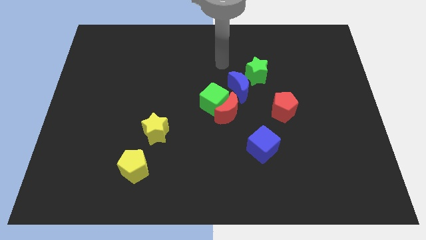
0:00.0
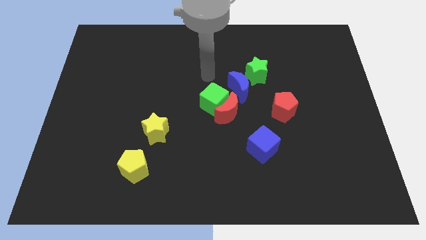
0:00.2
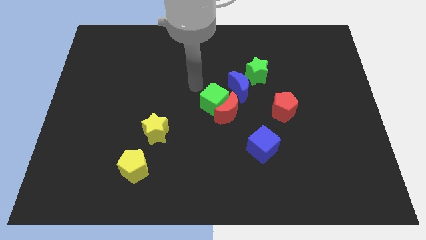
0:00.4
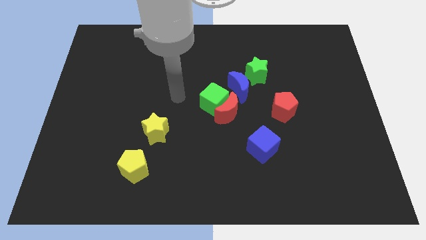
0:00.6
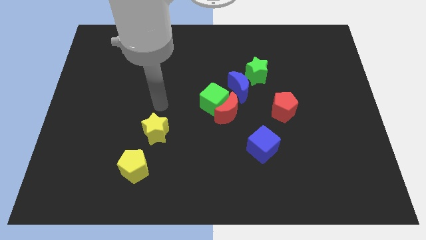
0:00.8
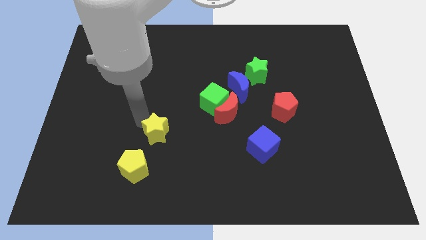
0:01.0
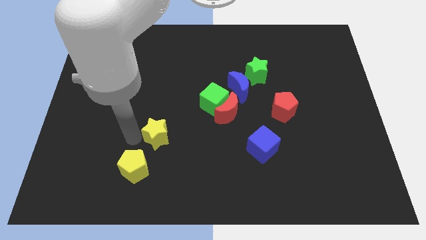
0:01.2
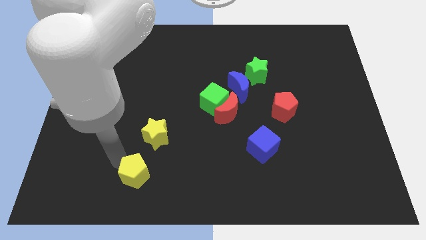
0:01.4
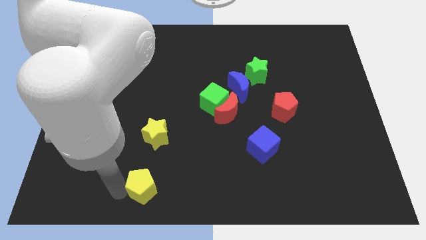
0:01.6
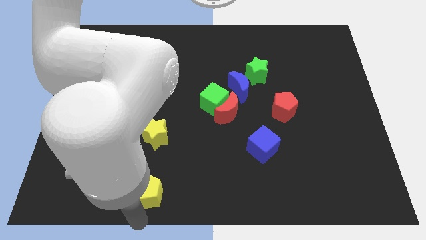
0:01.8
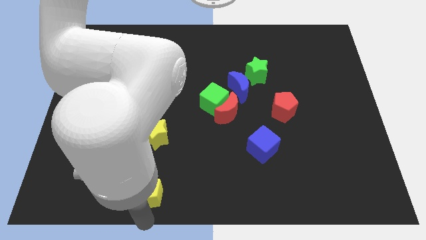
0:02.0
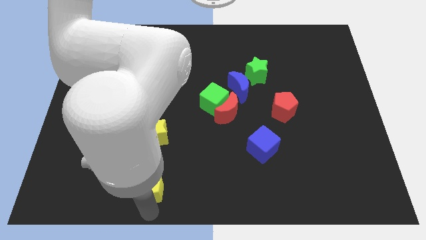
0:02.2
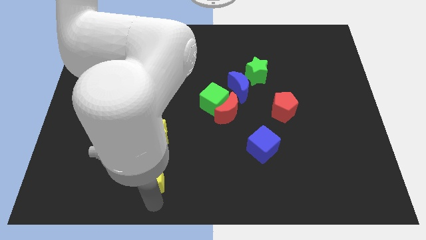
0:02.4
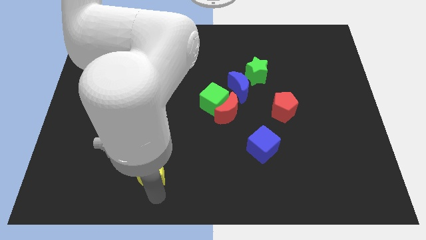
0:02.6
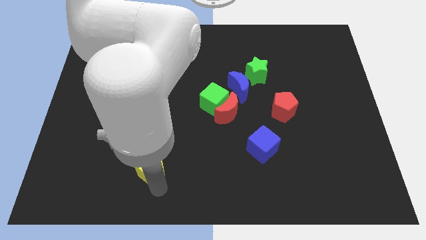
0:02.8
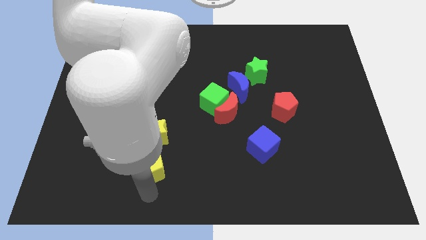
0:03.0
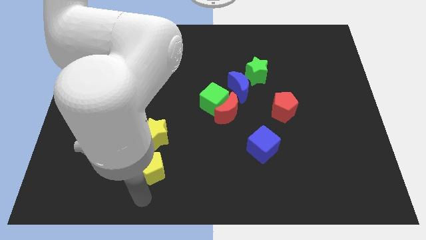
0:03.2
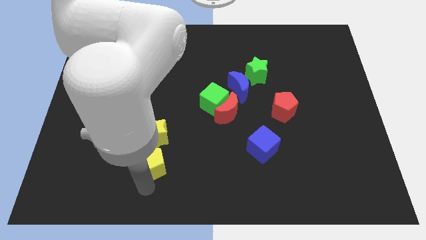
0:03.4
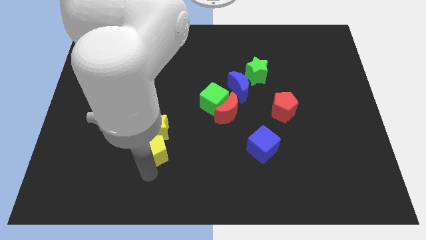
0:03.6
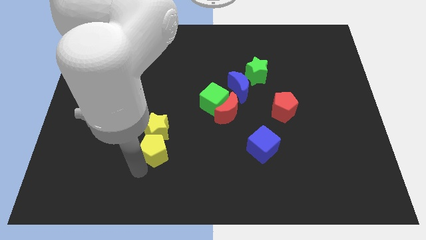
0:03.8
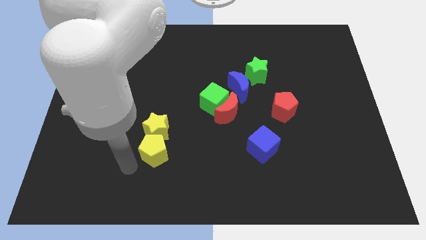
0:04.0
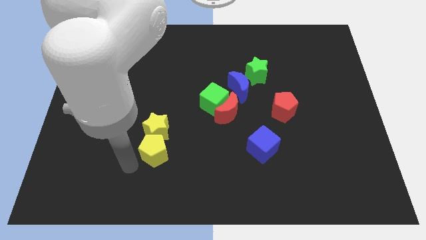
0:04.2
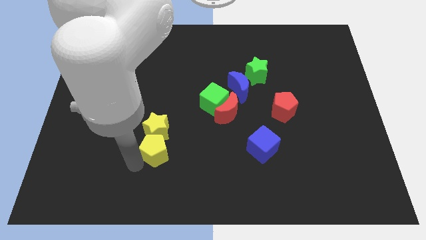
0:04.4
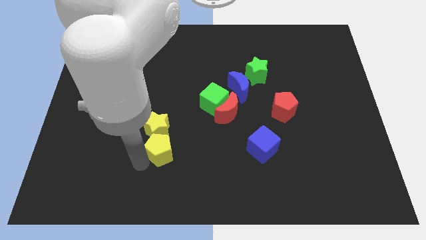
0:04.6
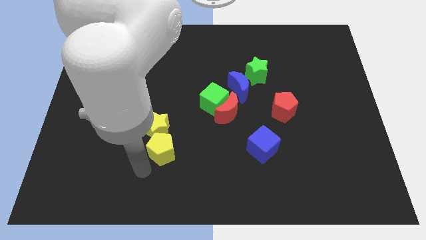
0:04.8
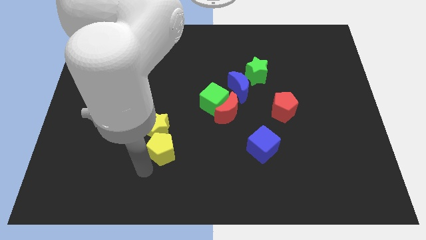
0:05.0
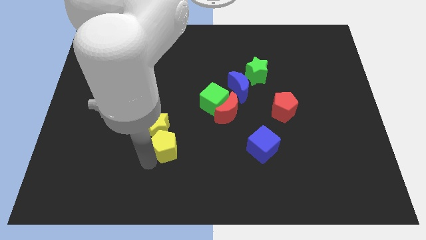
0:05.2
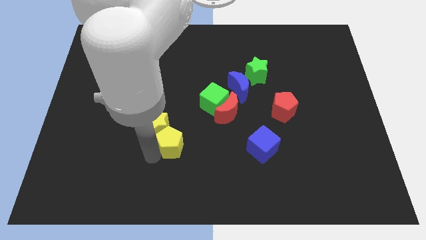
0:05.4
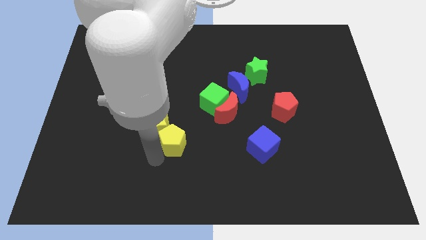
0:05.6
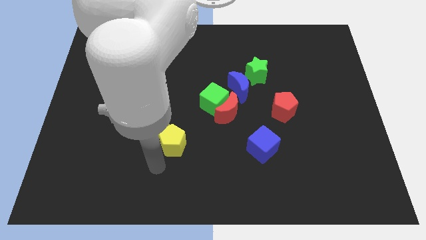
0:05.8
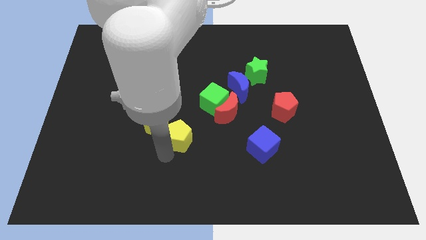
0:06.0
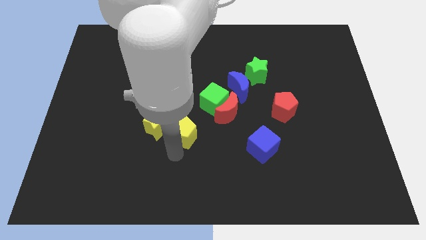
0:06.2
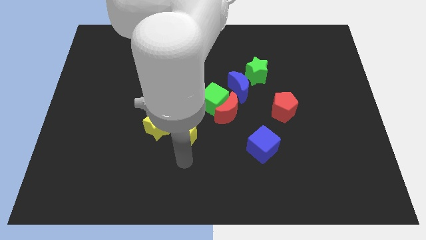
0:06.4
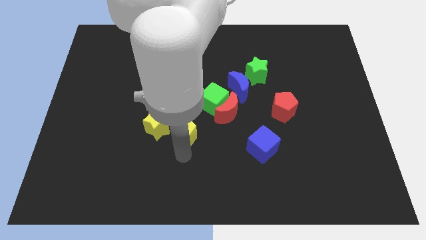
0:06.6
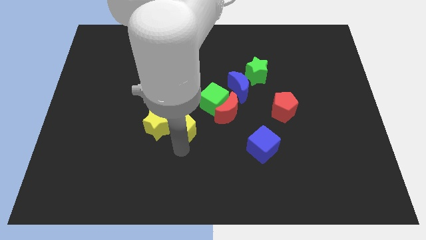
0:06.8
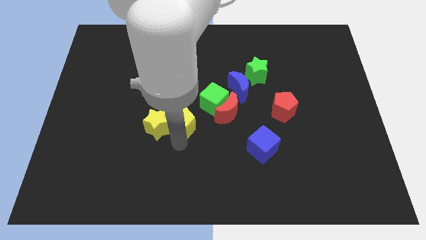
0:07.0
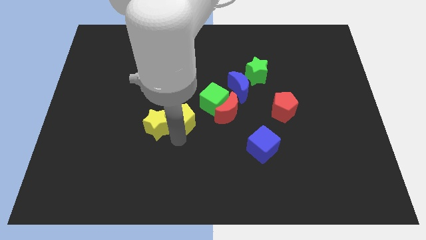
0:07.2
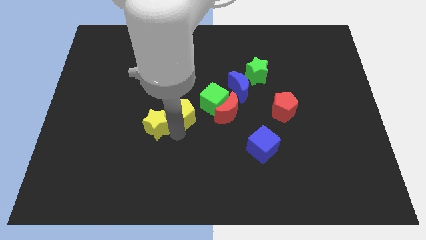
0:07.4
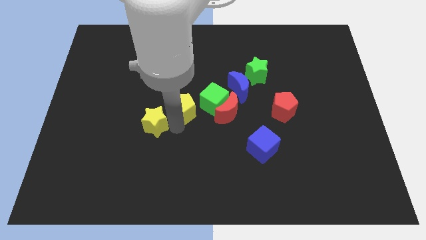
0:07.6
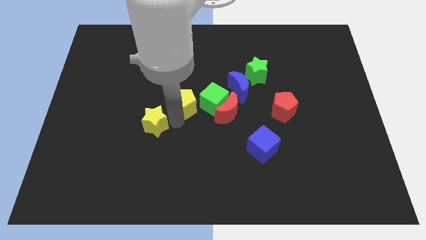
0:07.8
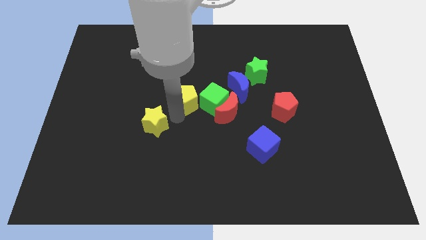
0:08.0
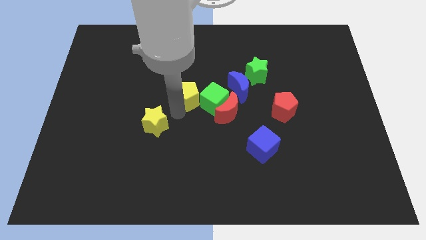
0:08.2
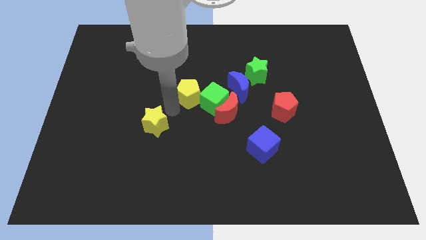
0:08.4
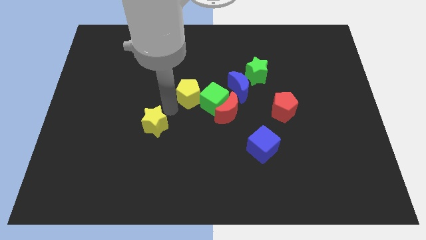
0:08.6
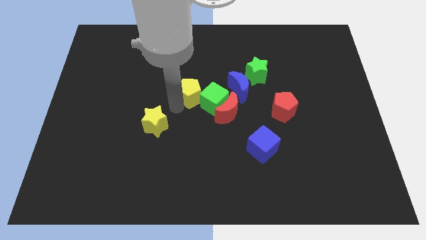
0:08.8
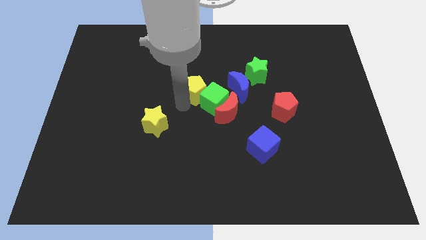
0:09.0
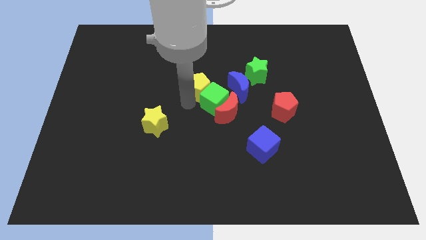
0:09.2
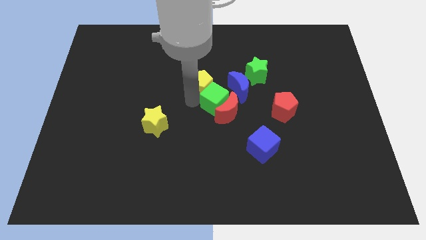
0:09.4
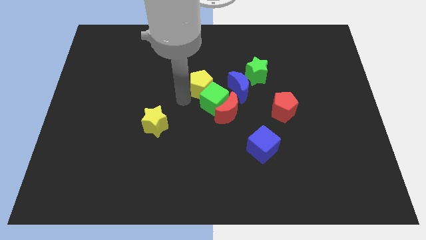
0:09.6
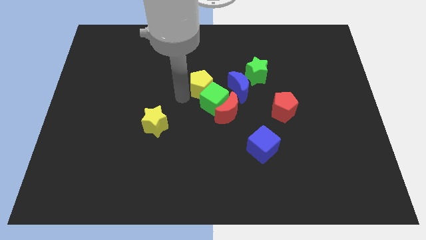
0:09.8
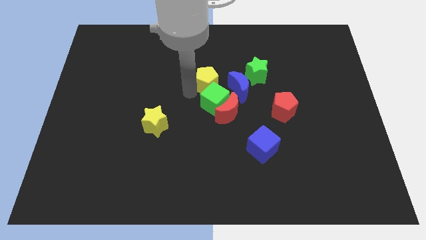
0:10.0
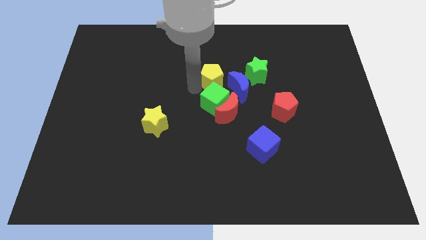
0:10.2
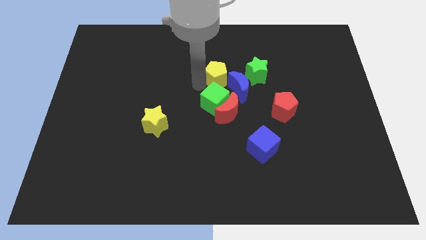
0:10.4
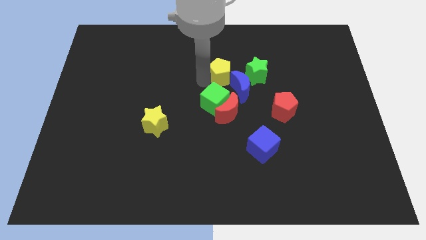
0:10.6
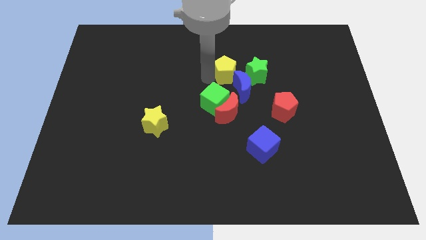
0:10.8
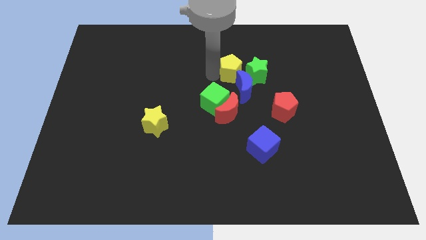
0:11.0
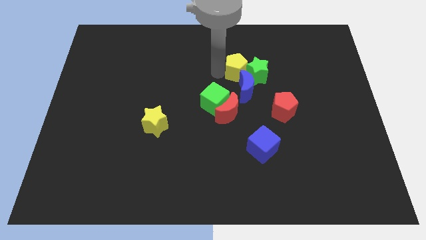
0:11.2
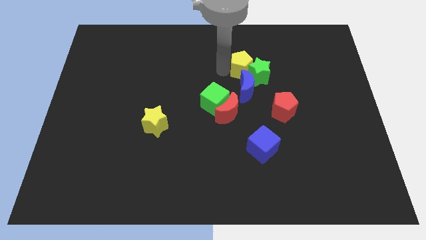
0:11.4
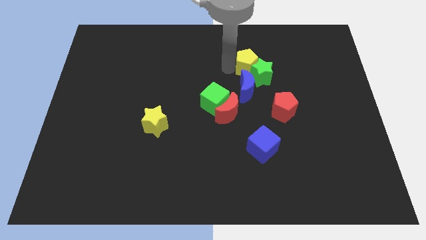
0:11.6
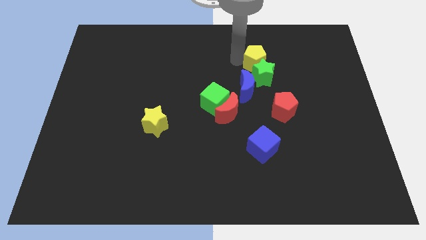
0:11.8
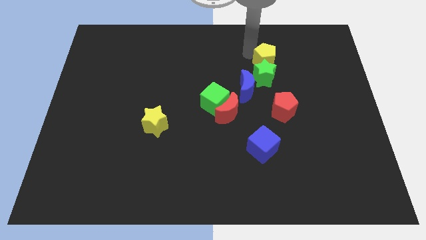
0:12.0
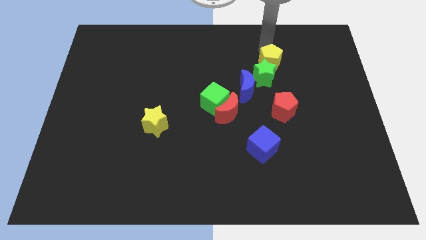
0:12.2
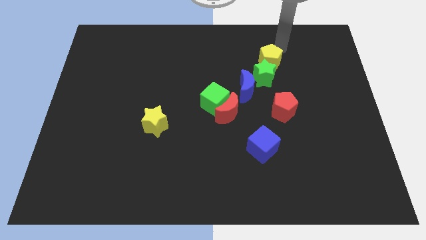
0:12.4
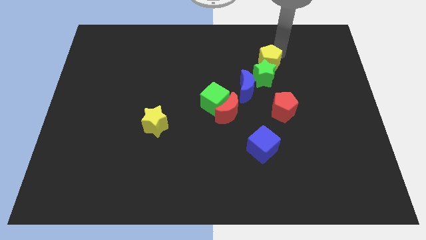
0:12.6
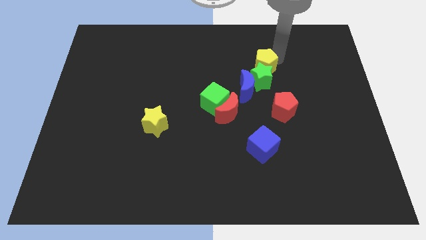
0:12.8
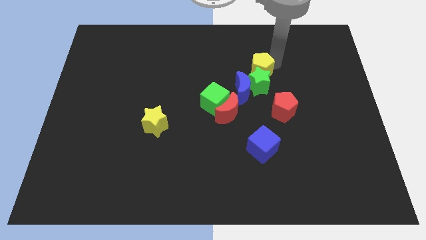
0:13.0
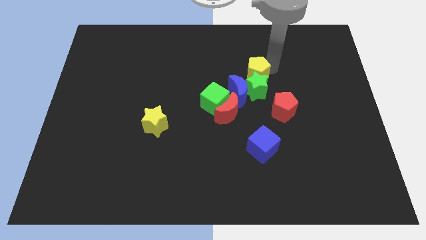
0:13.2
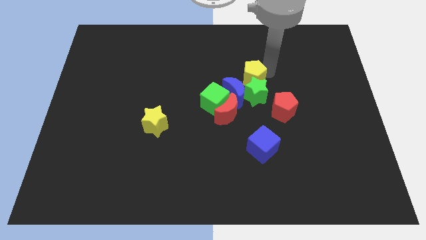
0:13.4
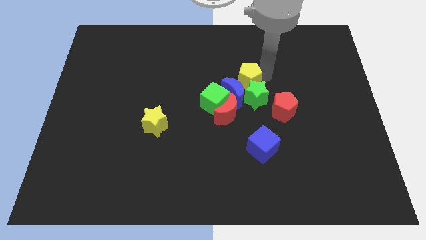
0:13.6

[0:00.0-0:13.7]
move the yellow pentagon next to the blue moon
